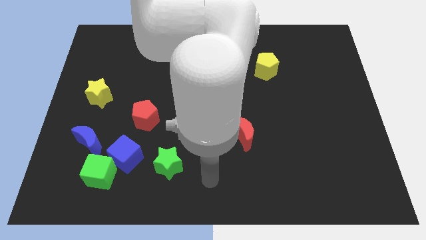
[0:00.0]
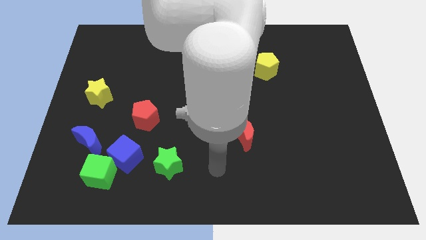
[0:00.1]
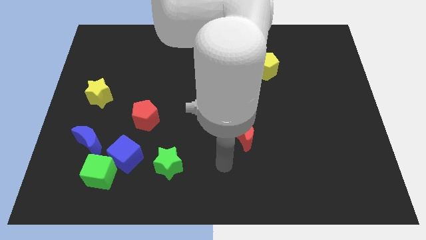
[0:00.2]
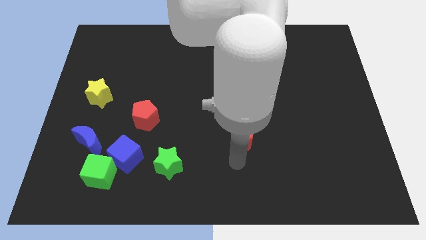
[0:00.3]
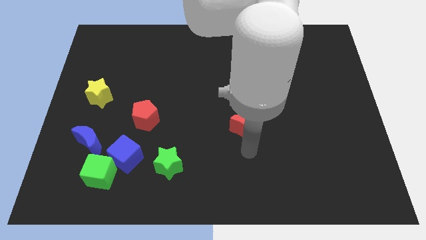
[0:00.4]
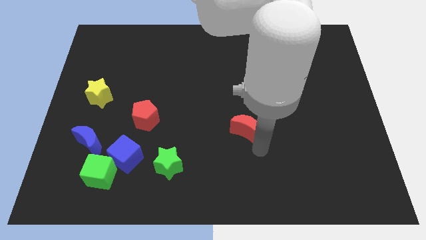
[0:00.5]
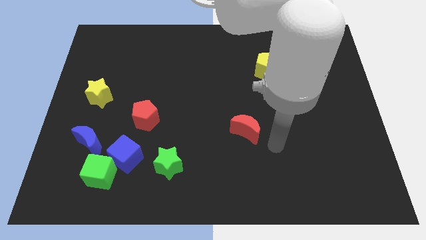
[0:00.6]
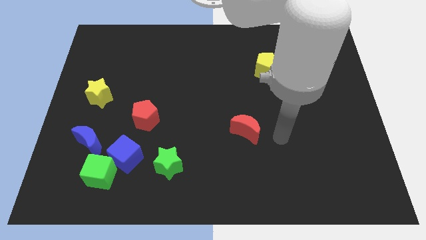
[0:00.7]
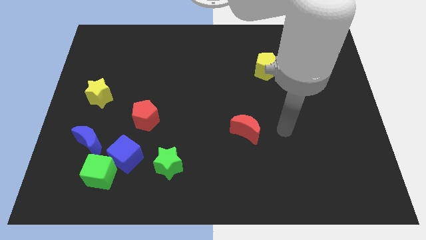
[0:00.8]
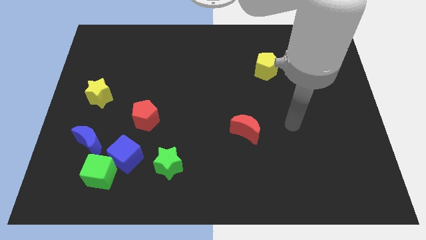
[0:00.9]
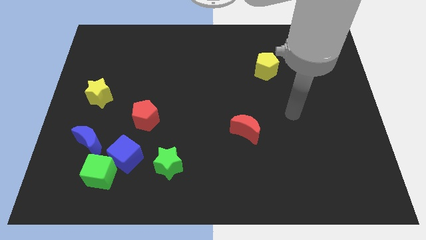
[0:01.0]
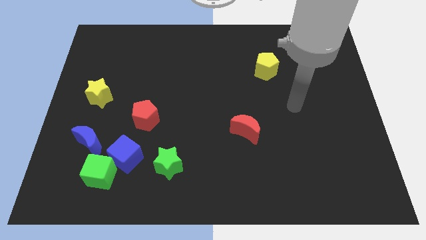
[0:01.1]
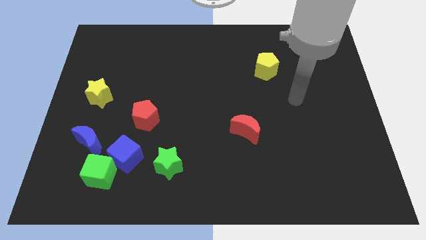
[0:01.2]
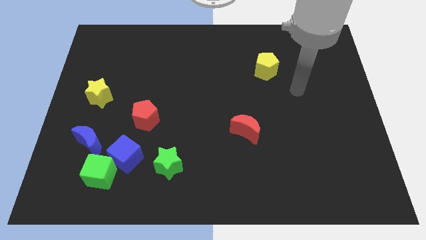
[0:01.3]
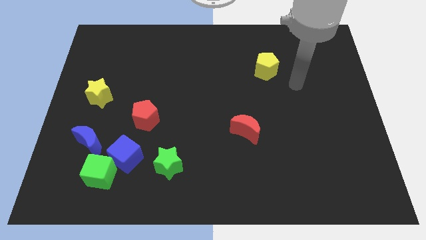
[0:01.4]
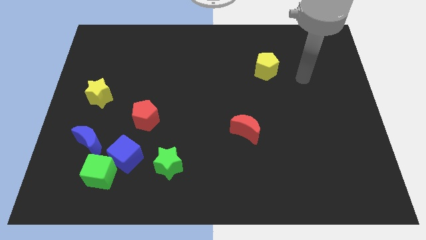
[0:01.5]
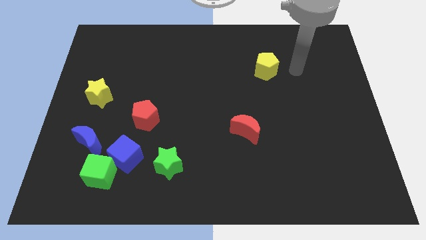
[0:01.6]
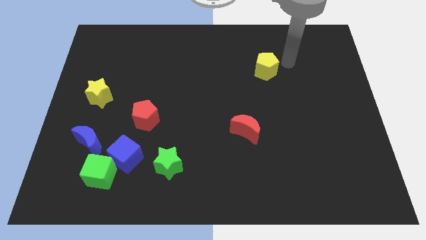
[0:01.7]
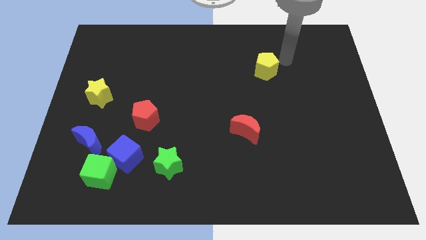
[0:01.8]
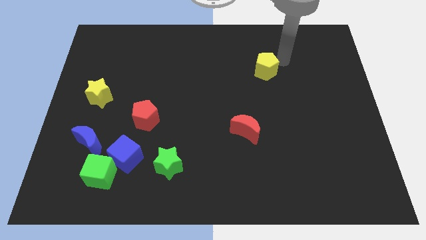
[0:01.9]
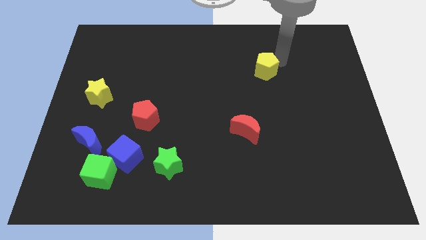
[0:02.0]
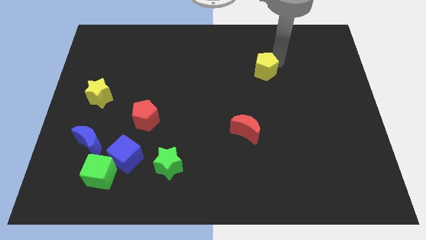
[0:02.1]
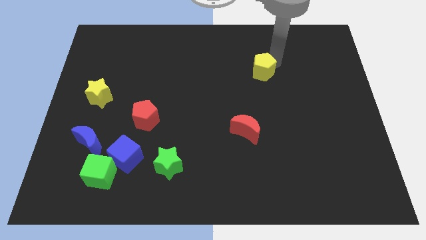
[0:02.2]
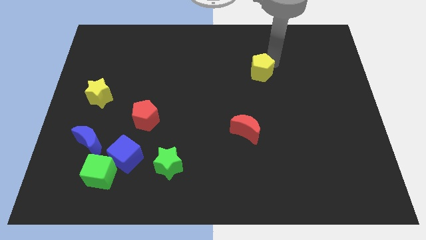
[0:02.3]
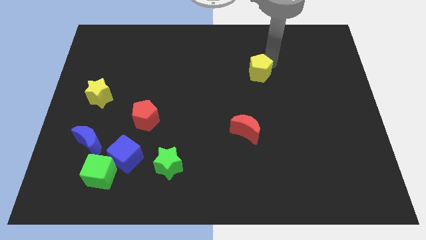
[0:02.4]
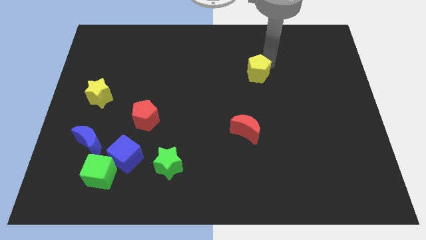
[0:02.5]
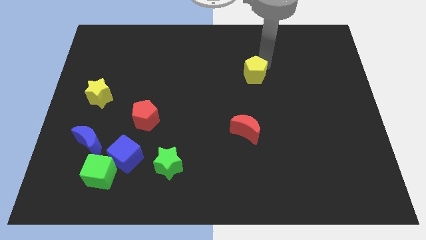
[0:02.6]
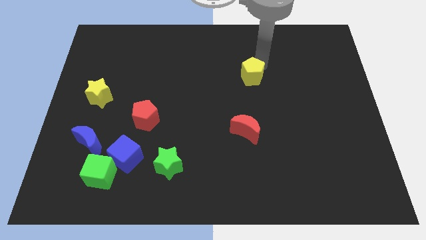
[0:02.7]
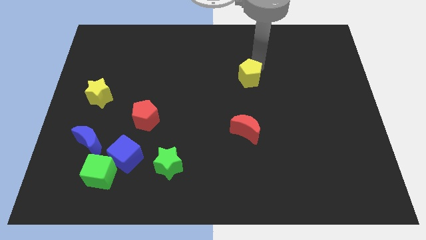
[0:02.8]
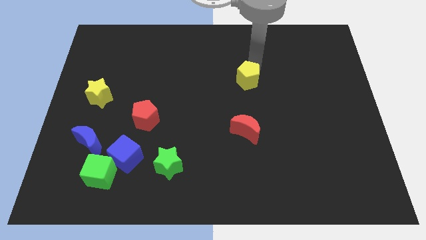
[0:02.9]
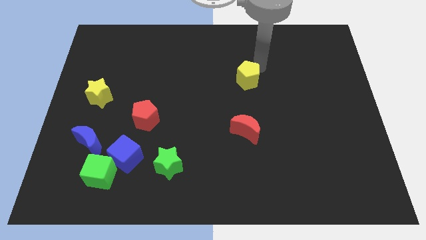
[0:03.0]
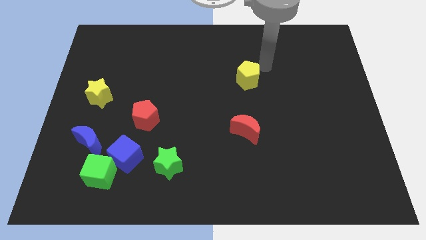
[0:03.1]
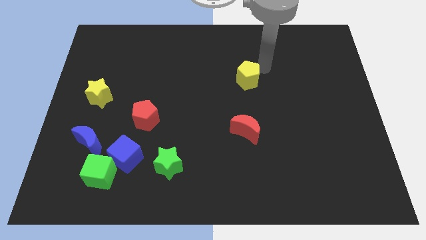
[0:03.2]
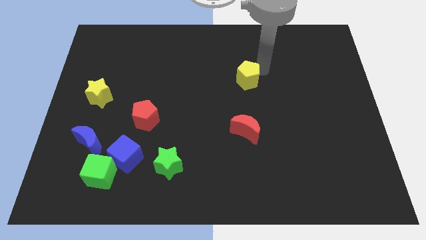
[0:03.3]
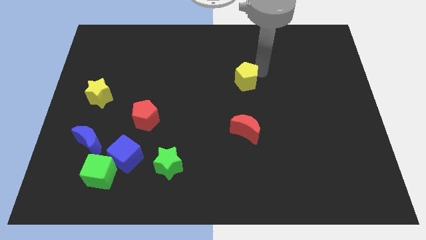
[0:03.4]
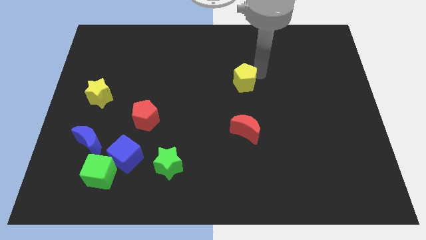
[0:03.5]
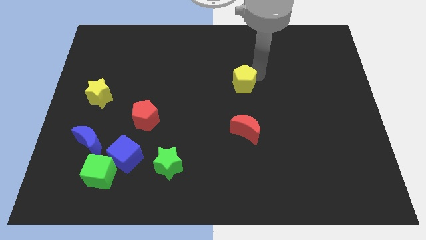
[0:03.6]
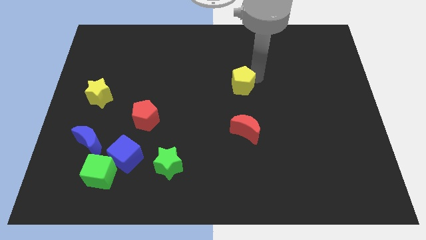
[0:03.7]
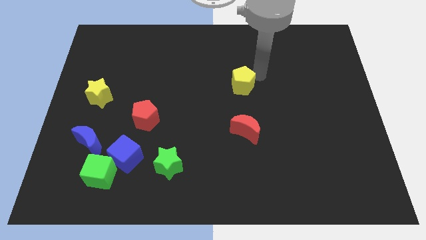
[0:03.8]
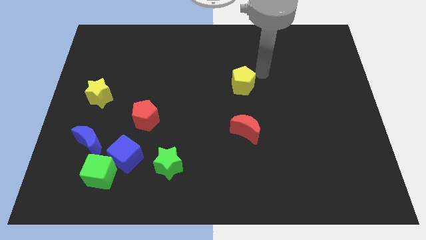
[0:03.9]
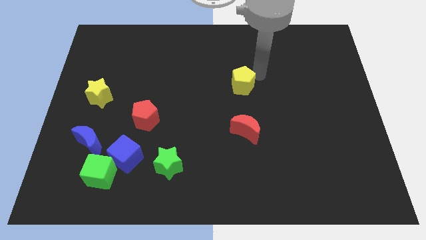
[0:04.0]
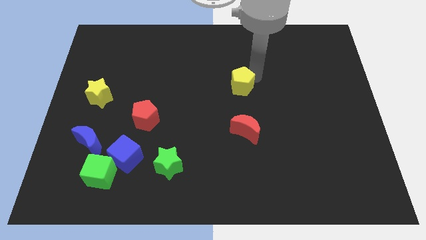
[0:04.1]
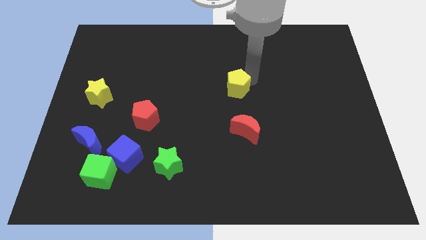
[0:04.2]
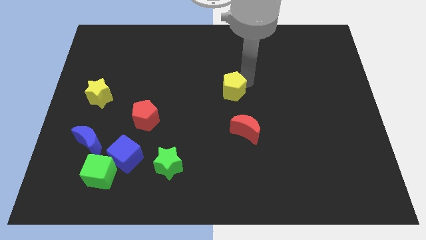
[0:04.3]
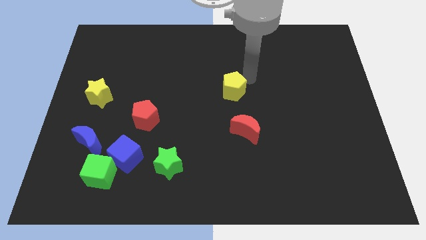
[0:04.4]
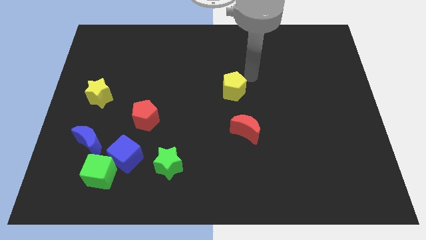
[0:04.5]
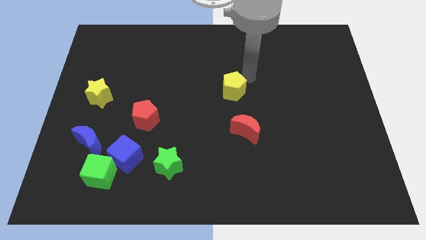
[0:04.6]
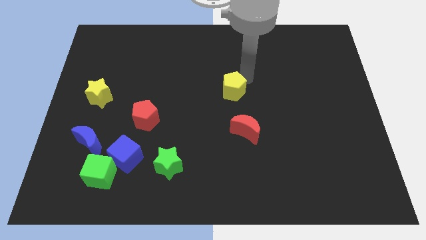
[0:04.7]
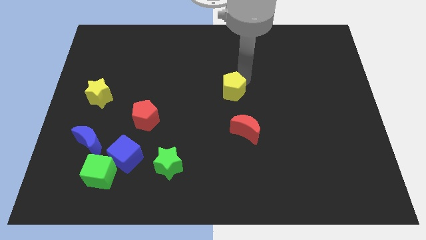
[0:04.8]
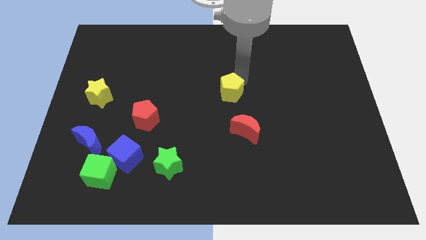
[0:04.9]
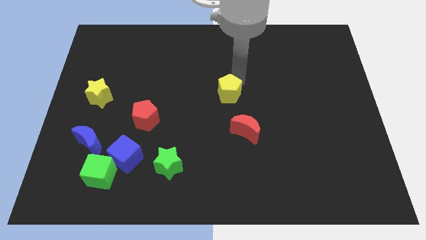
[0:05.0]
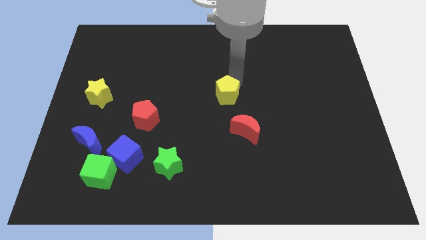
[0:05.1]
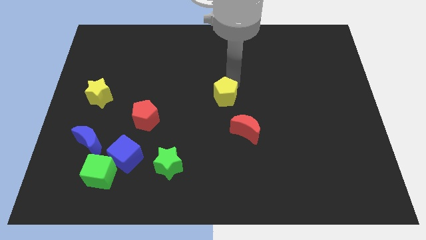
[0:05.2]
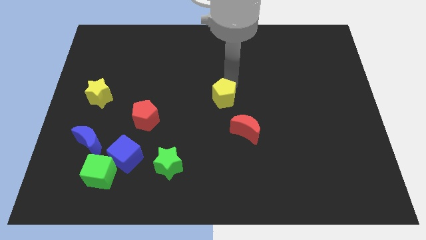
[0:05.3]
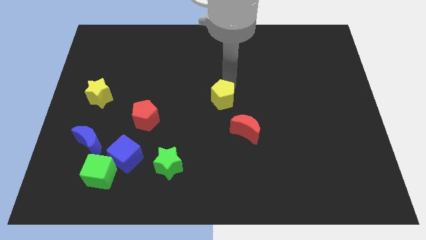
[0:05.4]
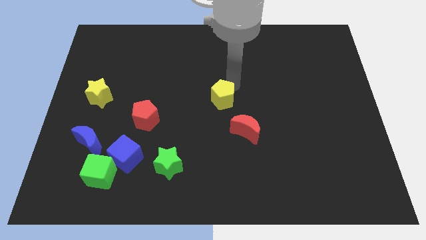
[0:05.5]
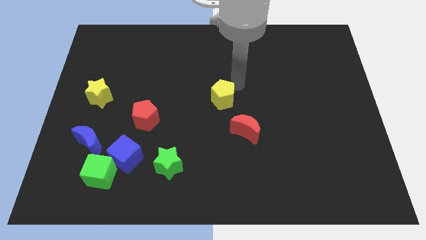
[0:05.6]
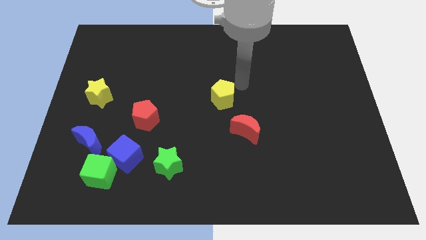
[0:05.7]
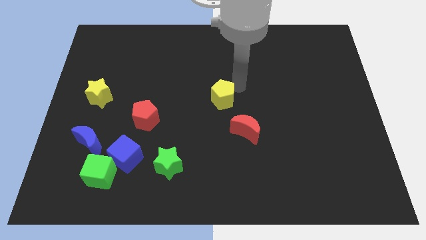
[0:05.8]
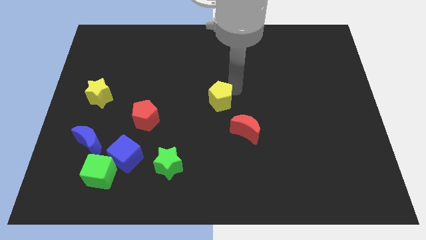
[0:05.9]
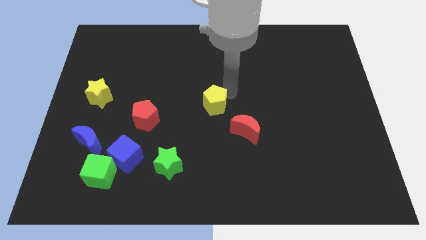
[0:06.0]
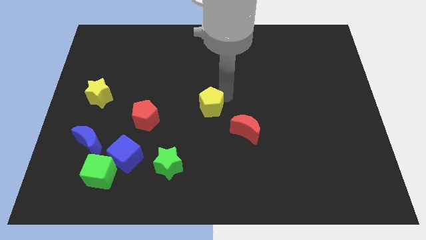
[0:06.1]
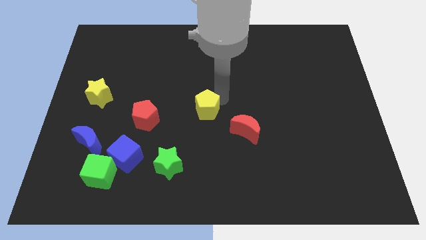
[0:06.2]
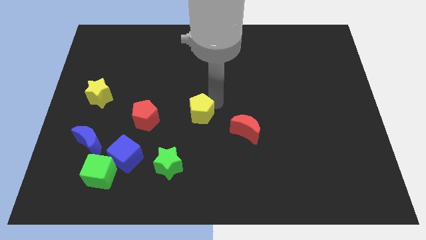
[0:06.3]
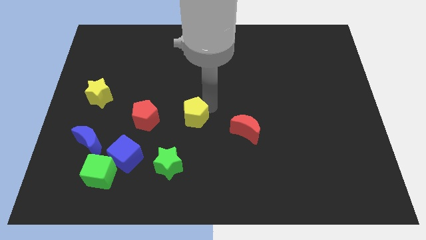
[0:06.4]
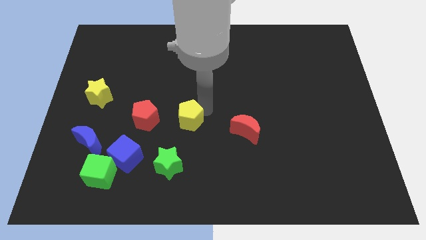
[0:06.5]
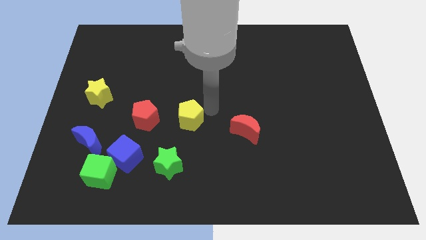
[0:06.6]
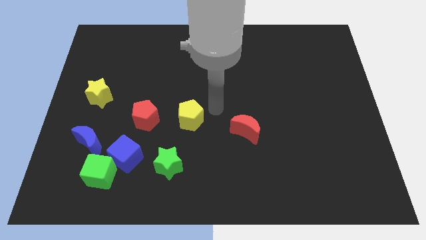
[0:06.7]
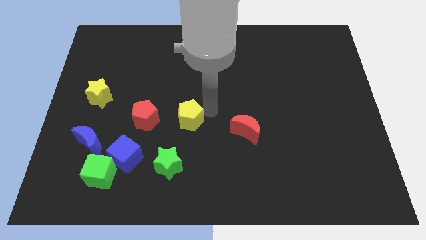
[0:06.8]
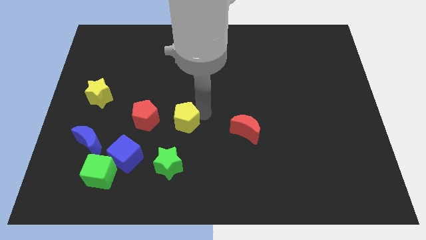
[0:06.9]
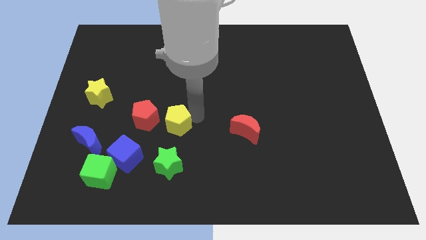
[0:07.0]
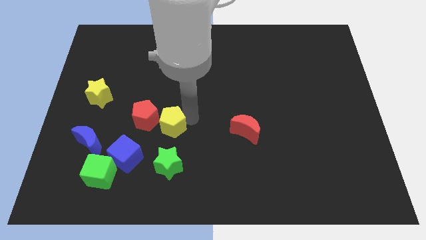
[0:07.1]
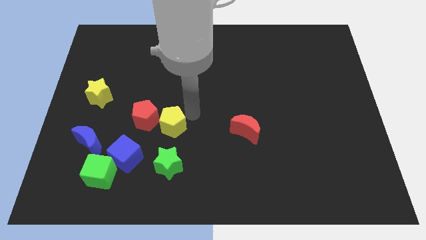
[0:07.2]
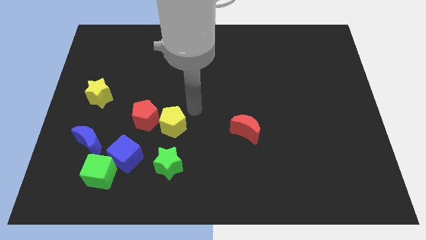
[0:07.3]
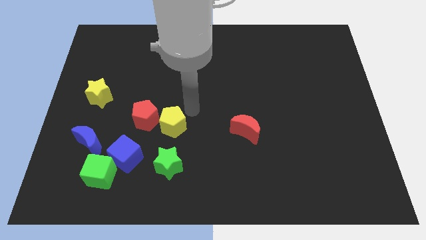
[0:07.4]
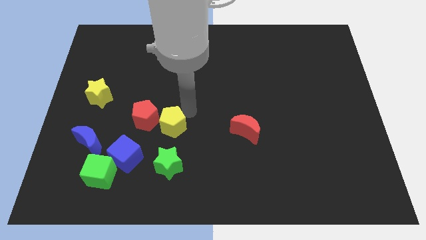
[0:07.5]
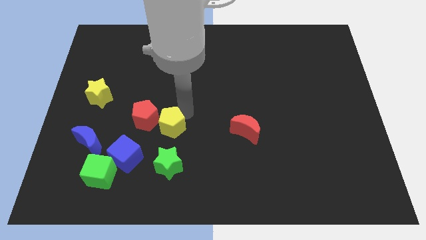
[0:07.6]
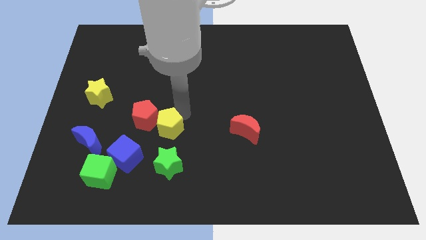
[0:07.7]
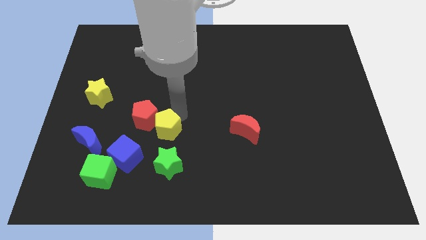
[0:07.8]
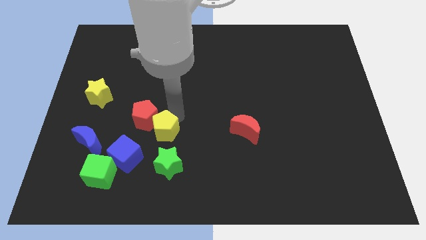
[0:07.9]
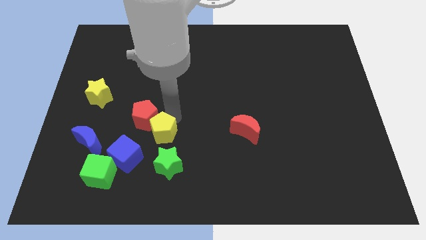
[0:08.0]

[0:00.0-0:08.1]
move the yellow pentagon diagonally up and to the left of the green star
